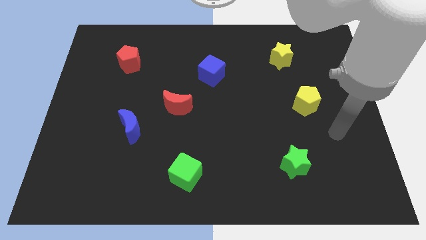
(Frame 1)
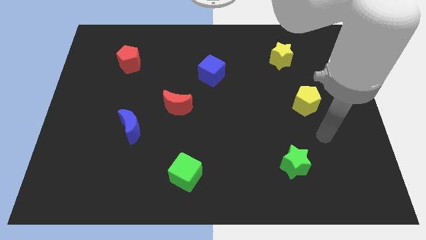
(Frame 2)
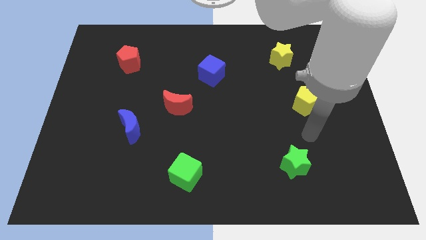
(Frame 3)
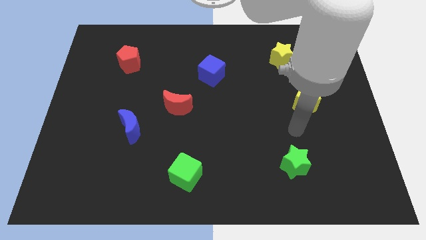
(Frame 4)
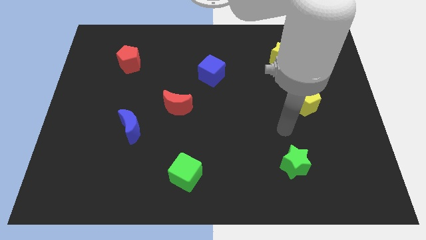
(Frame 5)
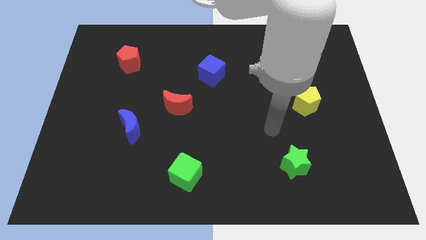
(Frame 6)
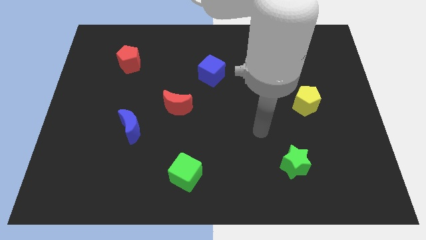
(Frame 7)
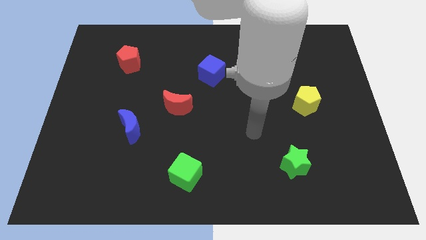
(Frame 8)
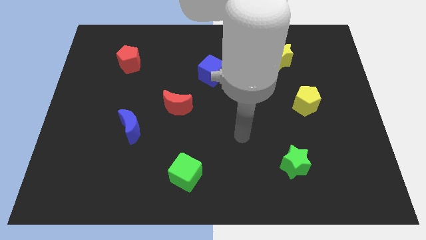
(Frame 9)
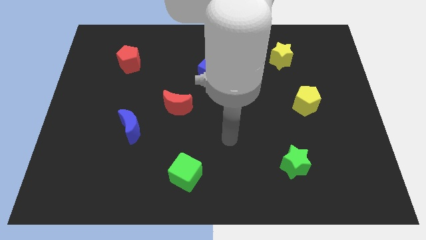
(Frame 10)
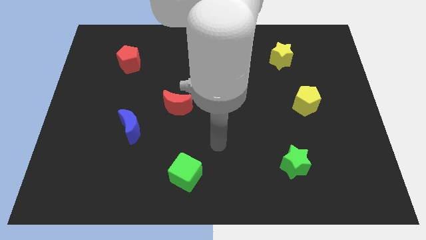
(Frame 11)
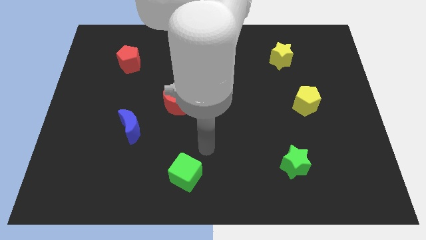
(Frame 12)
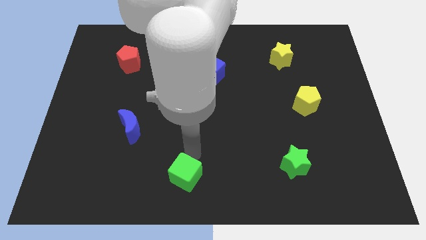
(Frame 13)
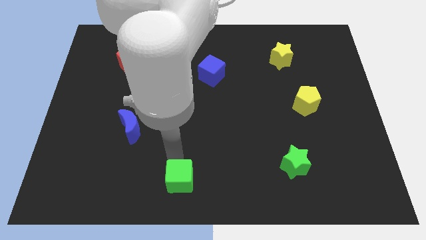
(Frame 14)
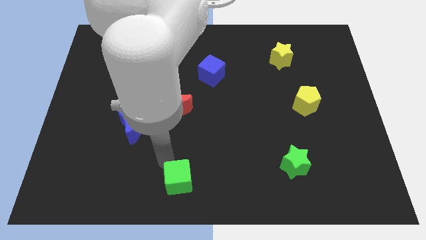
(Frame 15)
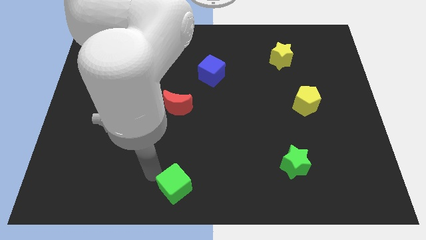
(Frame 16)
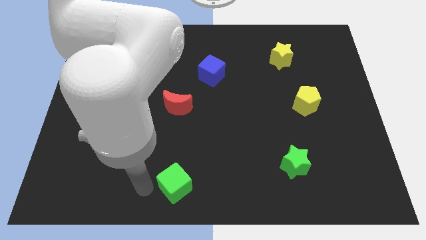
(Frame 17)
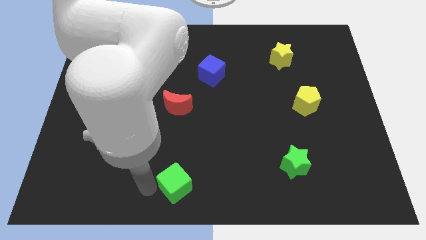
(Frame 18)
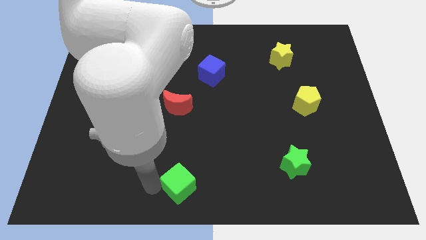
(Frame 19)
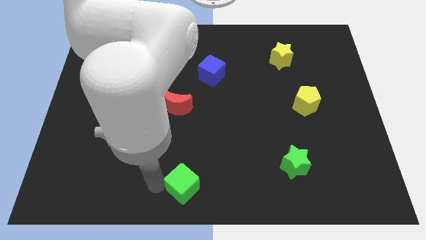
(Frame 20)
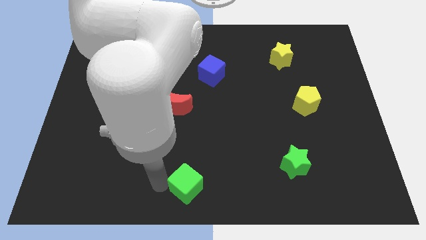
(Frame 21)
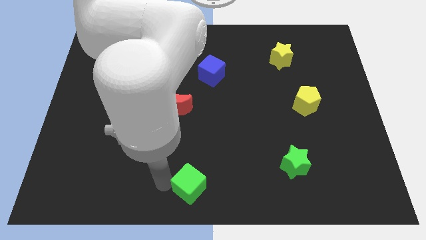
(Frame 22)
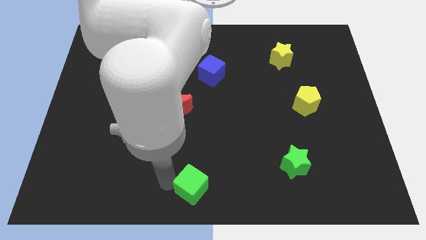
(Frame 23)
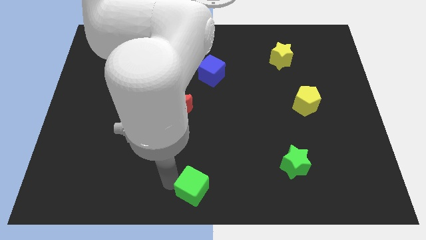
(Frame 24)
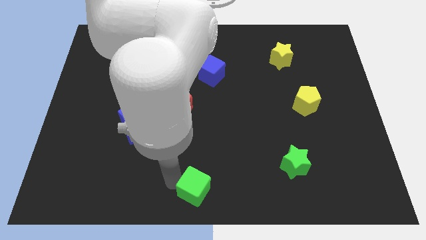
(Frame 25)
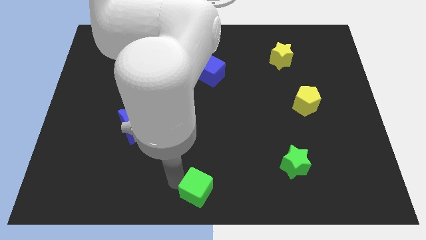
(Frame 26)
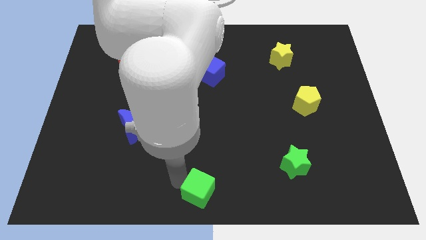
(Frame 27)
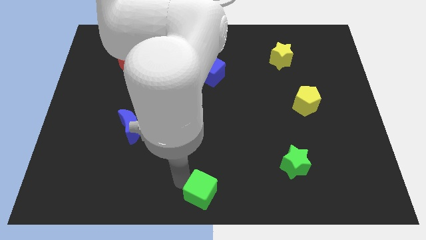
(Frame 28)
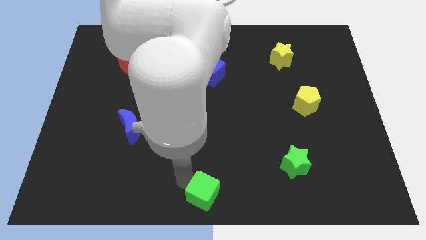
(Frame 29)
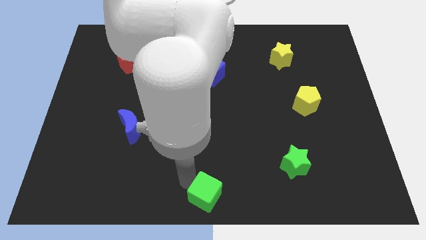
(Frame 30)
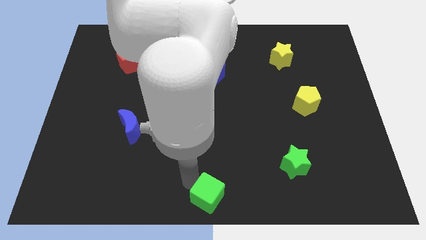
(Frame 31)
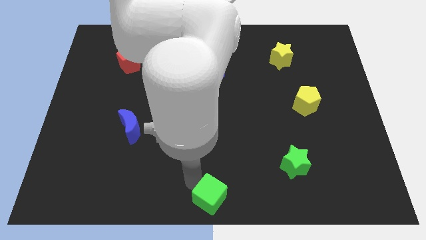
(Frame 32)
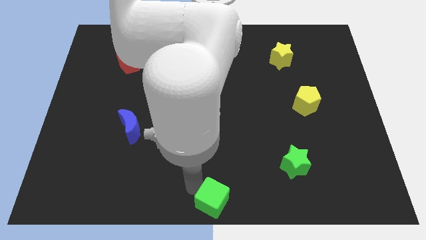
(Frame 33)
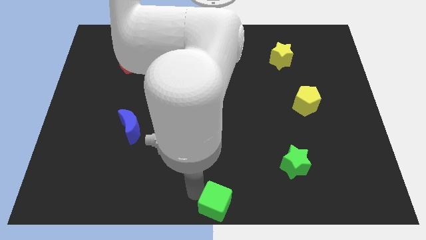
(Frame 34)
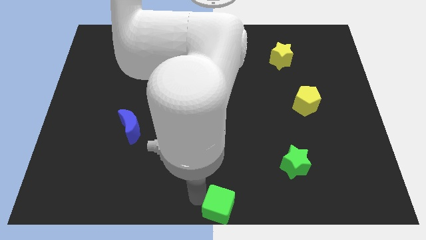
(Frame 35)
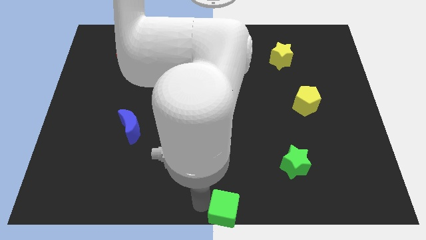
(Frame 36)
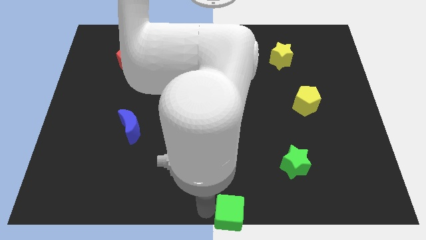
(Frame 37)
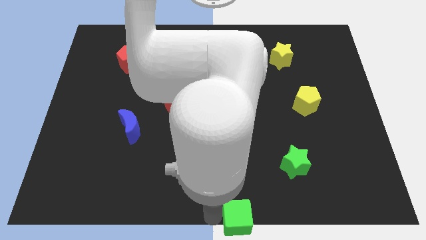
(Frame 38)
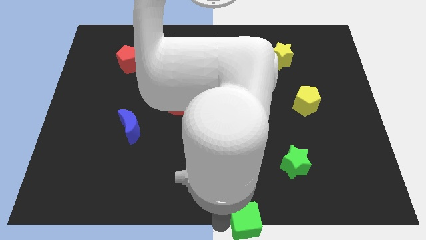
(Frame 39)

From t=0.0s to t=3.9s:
push the green cube right a little

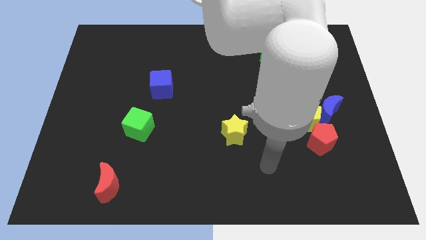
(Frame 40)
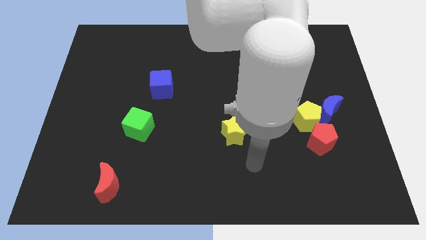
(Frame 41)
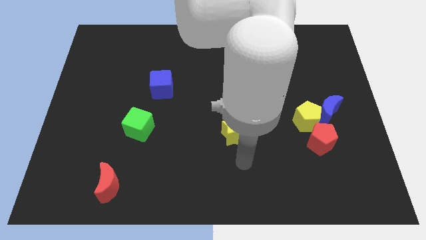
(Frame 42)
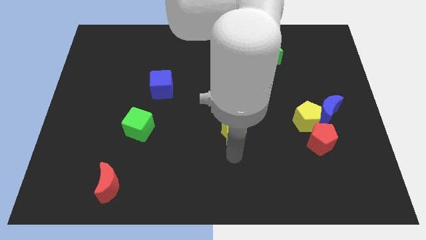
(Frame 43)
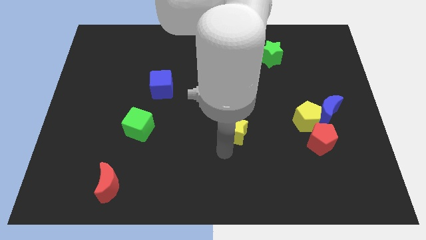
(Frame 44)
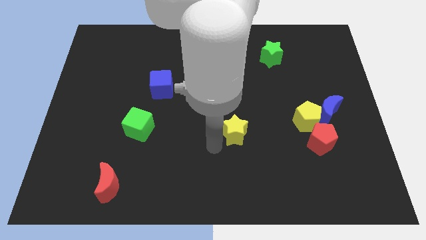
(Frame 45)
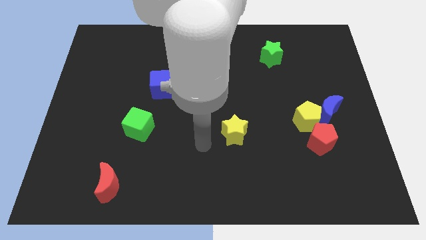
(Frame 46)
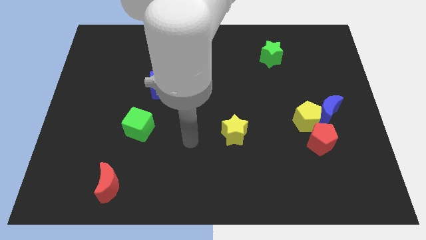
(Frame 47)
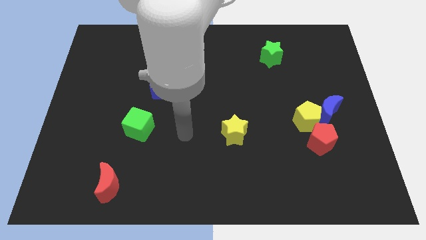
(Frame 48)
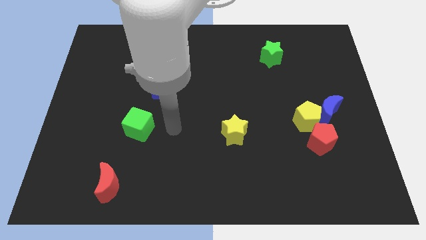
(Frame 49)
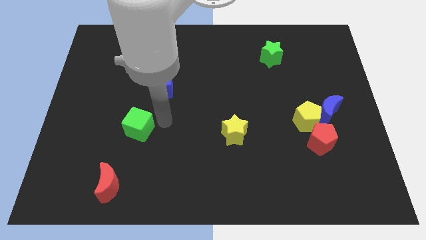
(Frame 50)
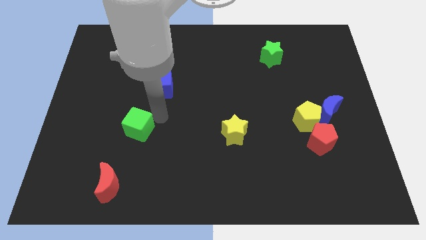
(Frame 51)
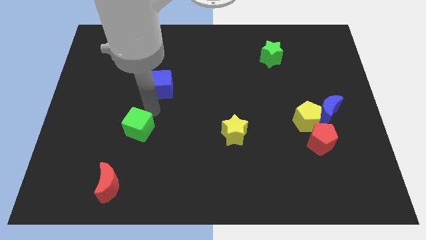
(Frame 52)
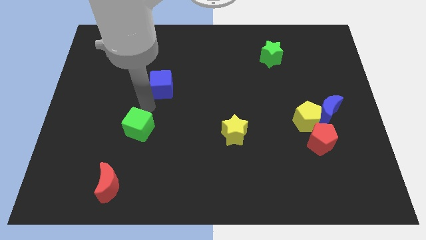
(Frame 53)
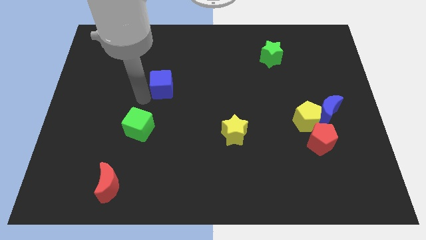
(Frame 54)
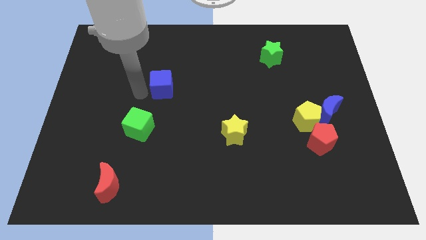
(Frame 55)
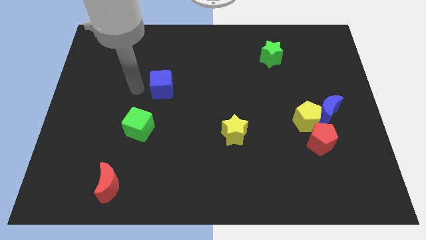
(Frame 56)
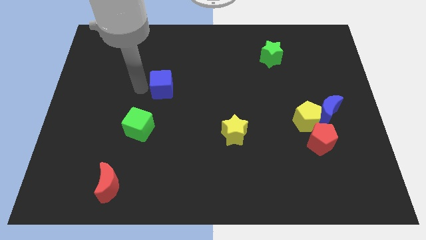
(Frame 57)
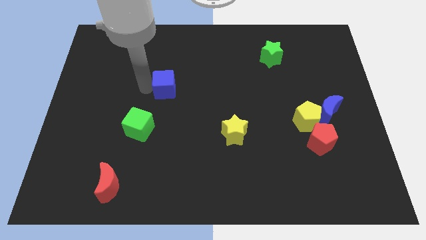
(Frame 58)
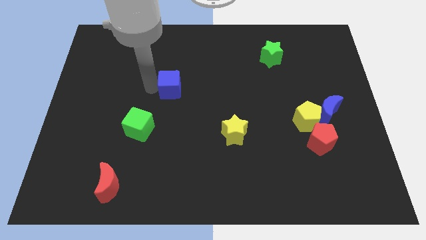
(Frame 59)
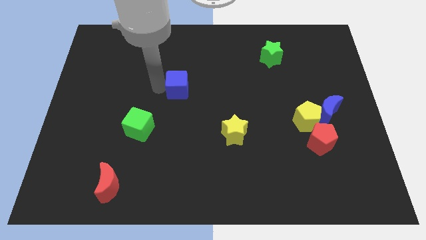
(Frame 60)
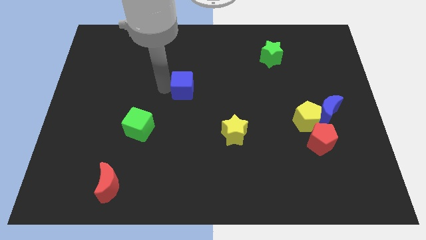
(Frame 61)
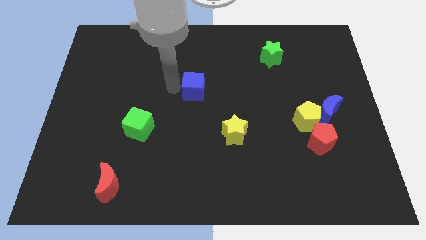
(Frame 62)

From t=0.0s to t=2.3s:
push the blue cube slightly right

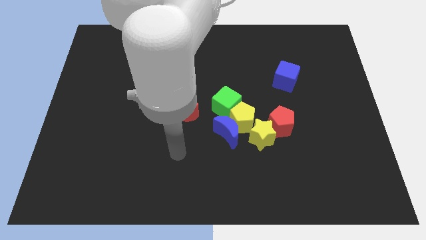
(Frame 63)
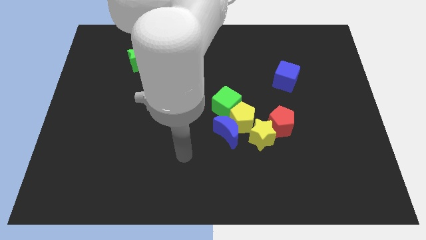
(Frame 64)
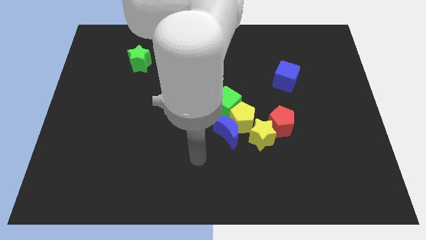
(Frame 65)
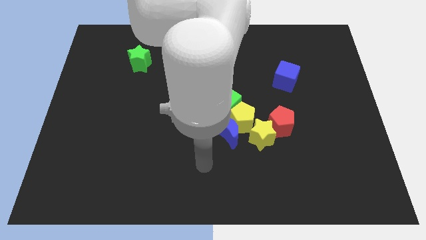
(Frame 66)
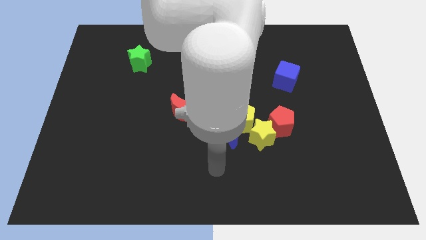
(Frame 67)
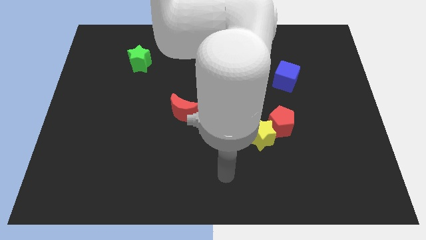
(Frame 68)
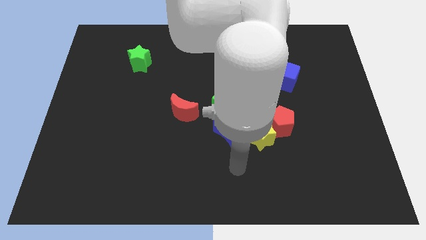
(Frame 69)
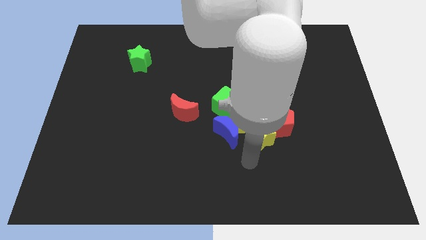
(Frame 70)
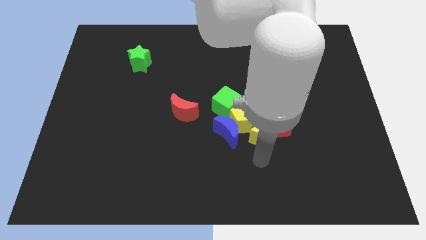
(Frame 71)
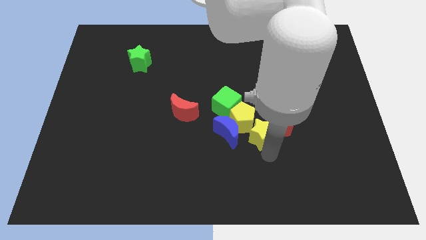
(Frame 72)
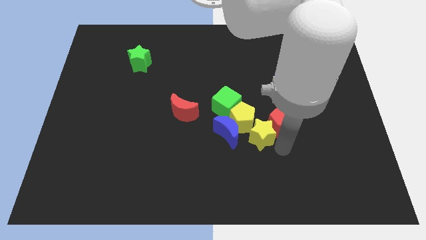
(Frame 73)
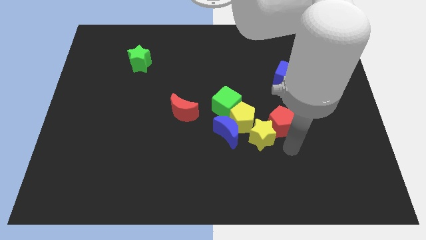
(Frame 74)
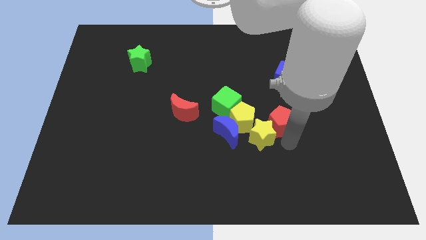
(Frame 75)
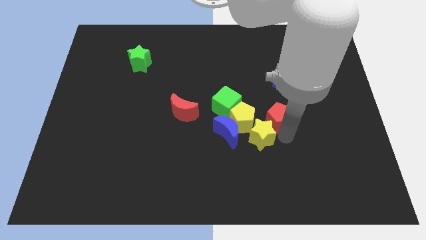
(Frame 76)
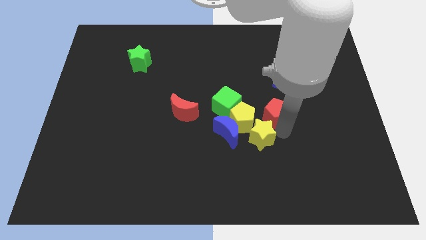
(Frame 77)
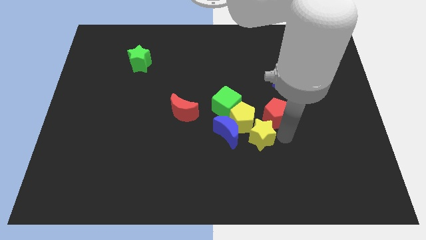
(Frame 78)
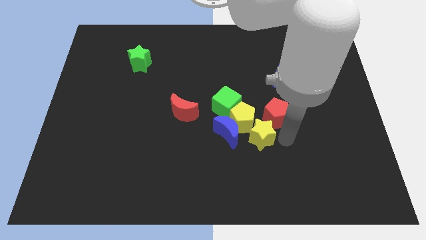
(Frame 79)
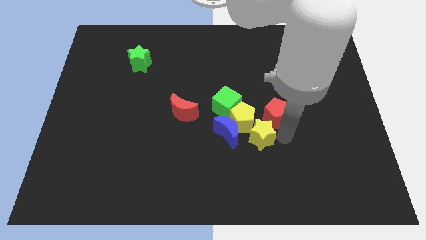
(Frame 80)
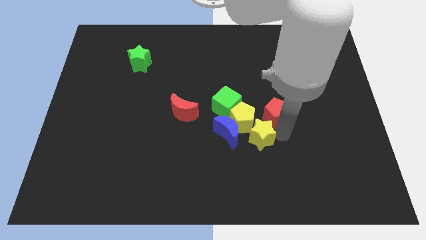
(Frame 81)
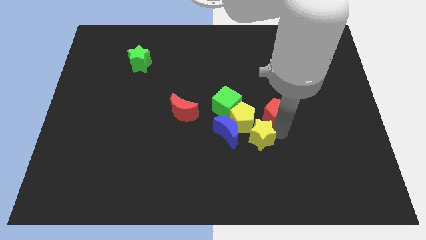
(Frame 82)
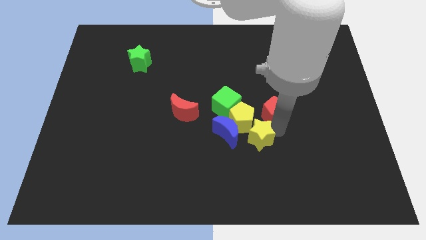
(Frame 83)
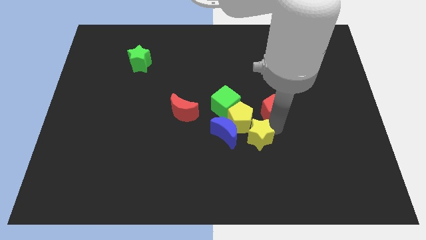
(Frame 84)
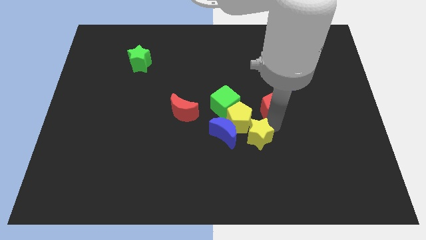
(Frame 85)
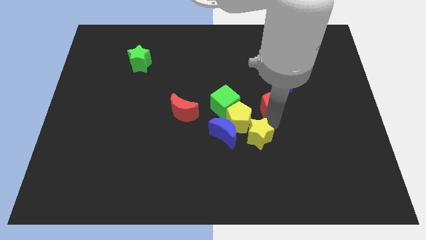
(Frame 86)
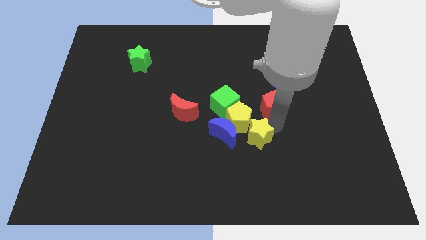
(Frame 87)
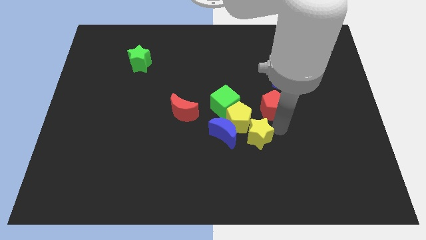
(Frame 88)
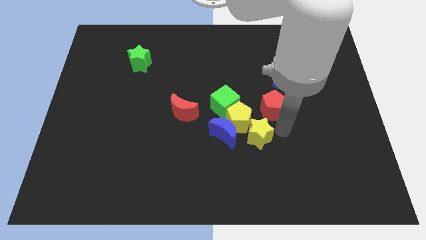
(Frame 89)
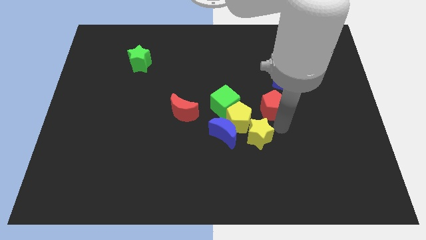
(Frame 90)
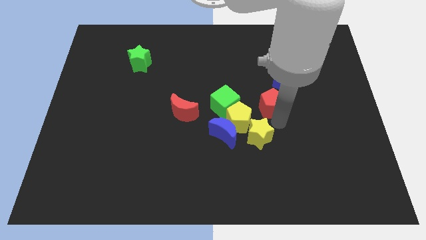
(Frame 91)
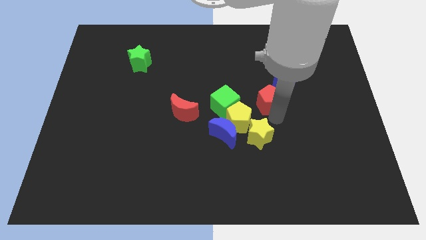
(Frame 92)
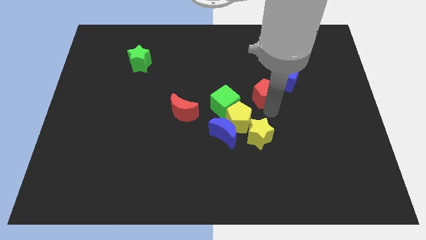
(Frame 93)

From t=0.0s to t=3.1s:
push the red pentagon slightly up
